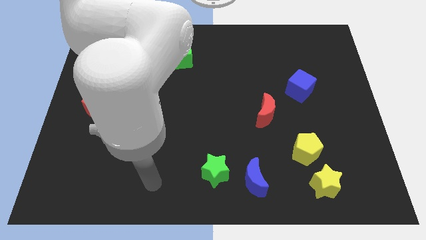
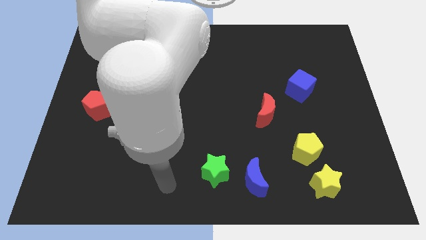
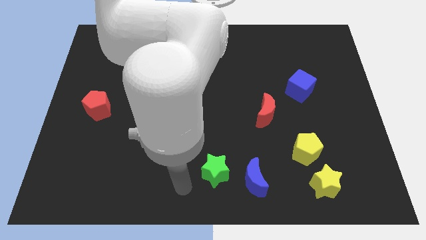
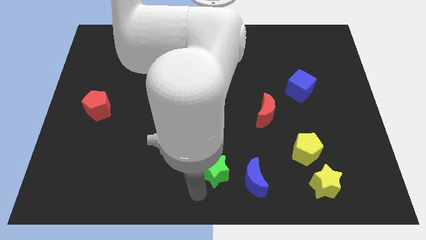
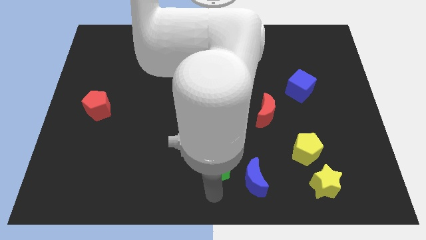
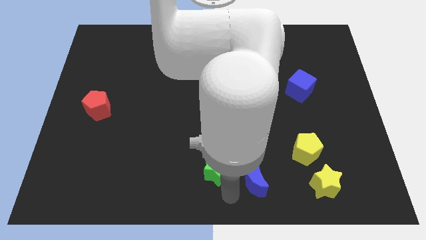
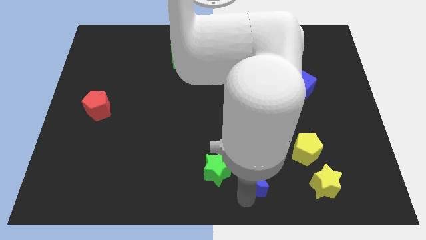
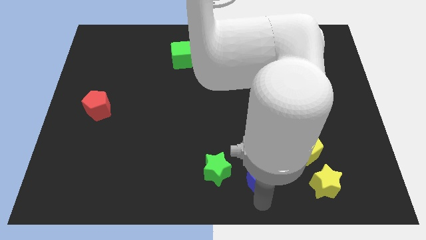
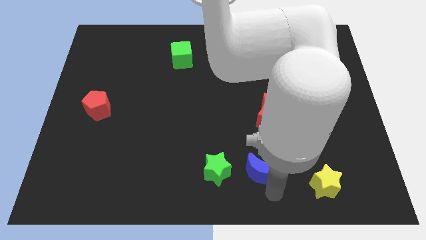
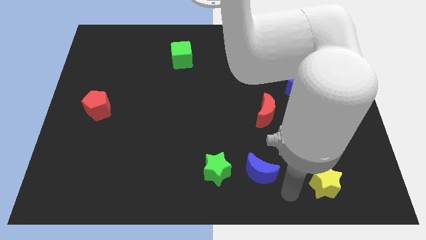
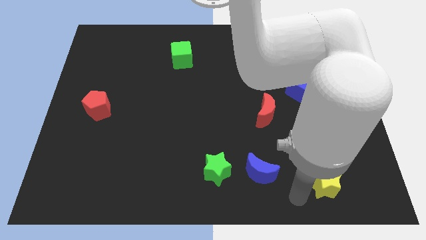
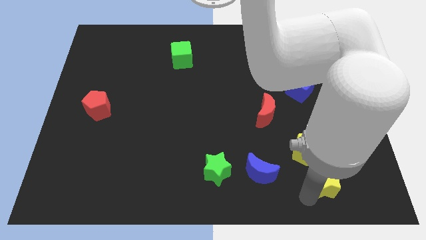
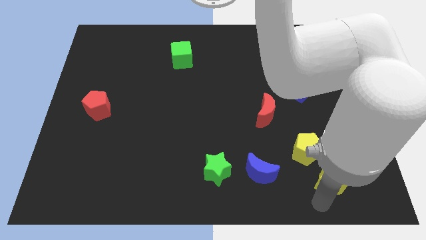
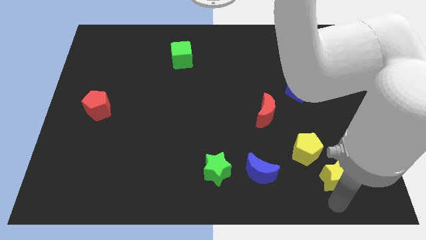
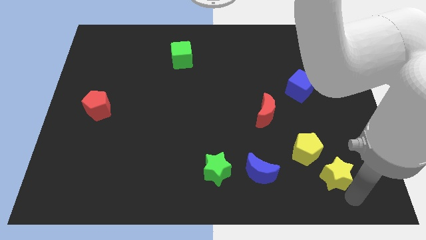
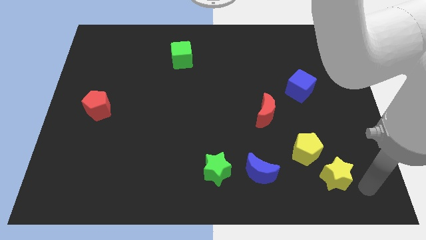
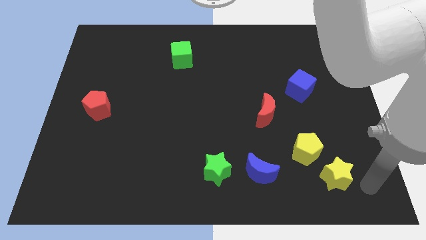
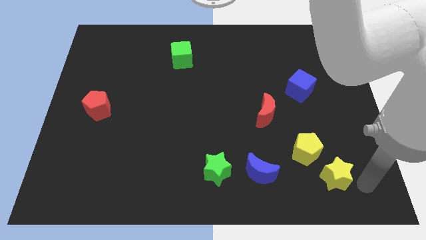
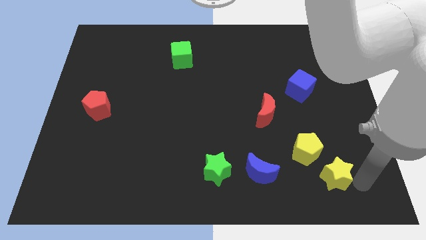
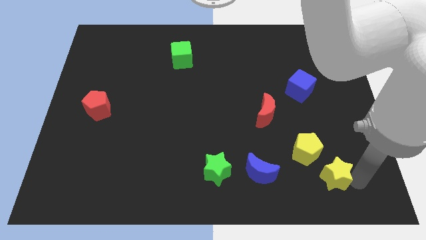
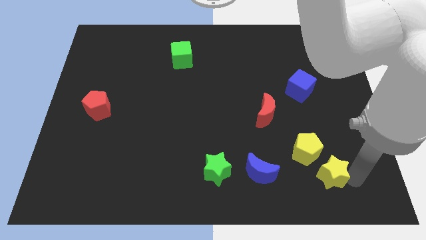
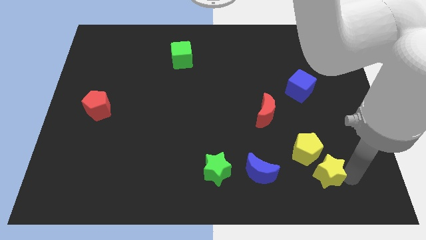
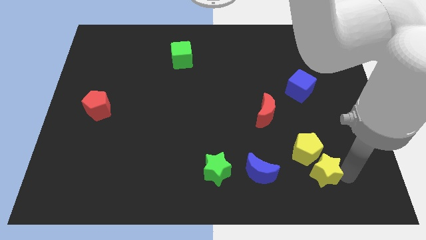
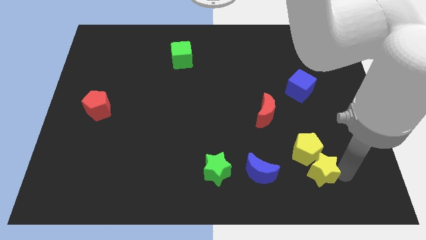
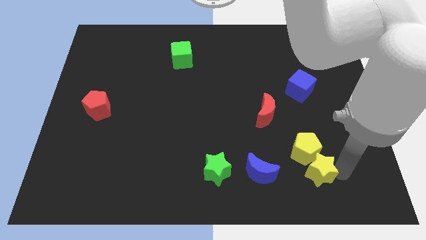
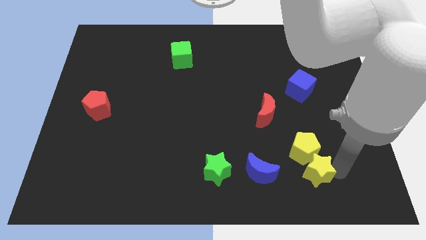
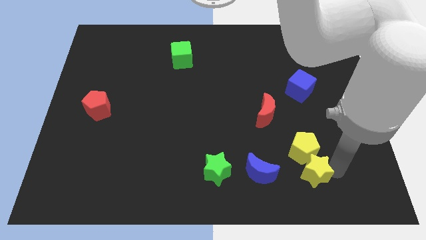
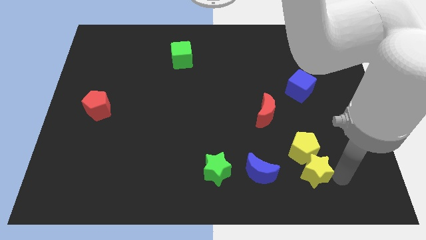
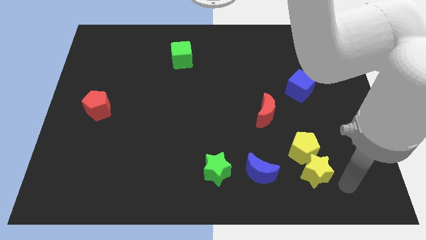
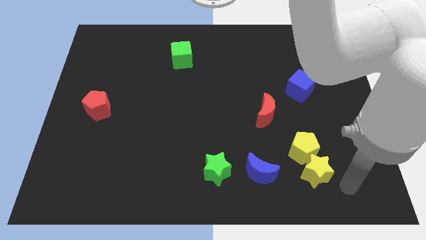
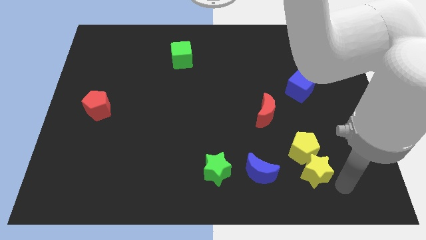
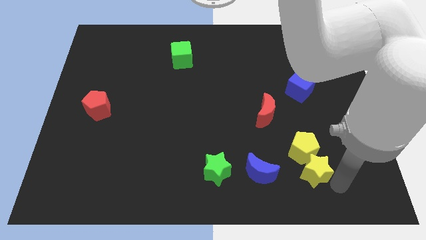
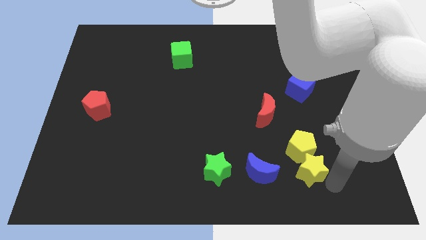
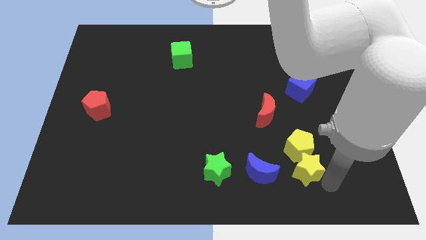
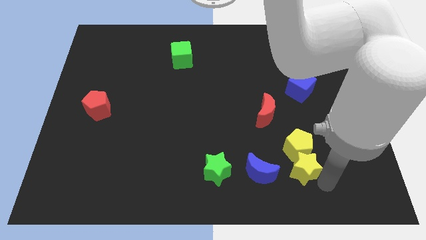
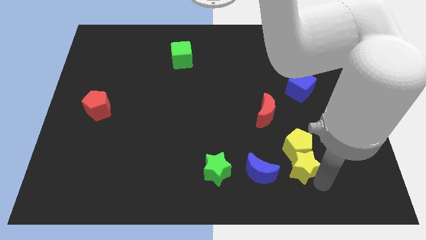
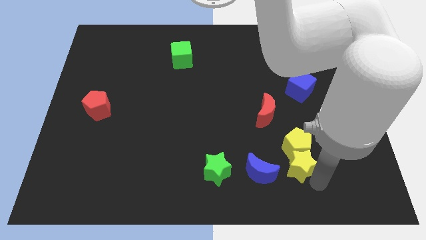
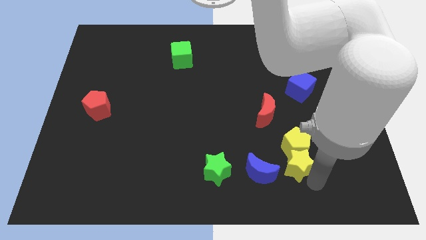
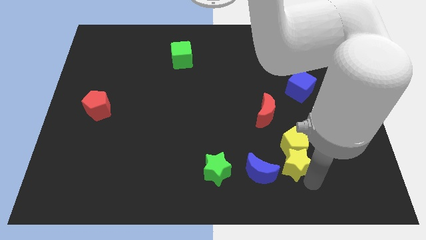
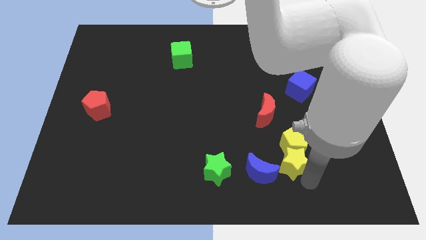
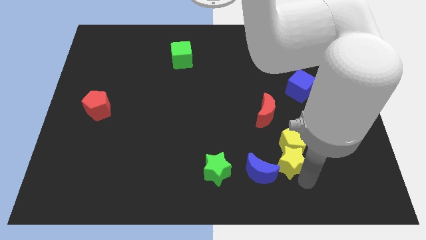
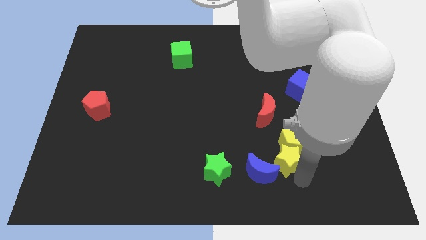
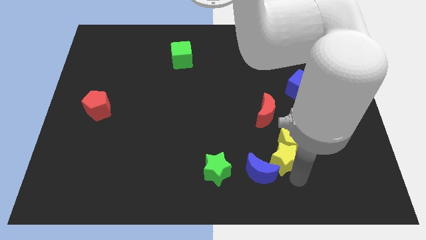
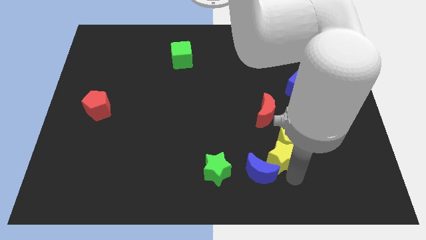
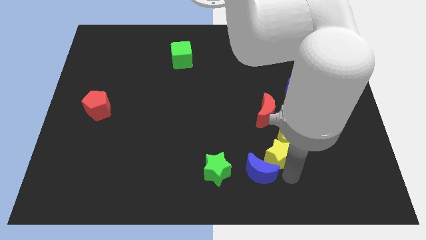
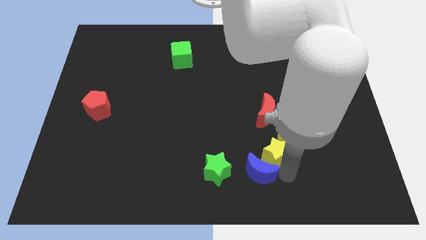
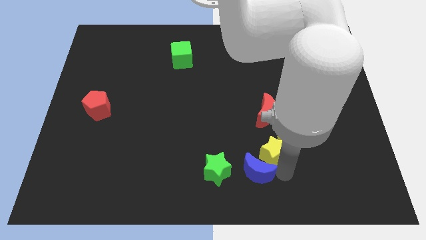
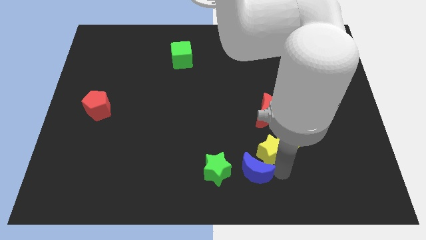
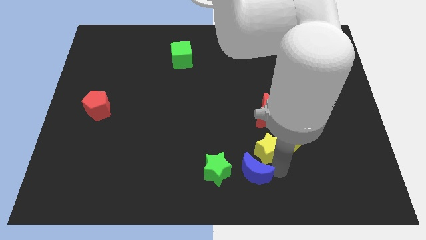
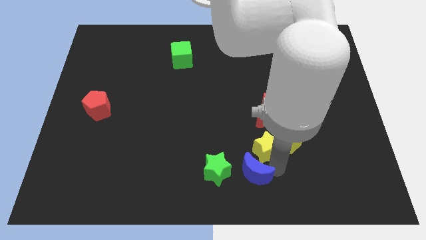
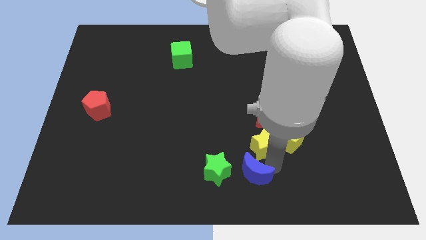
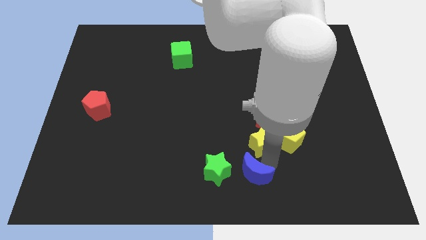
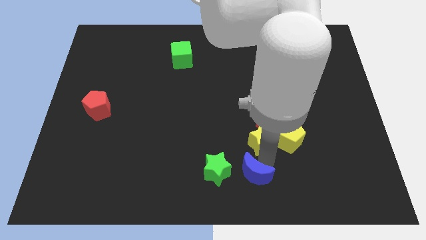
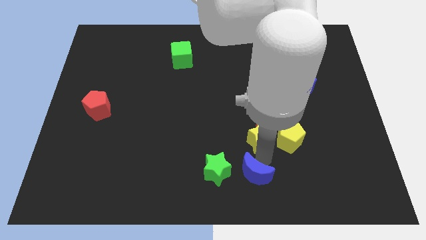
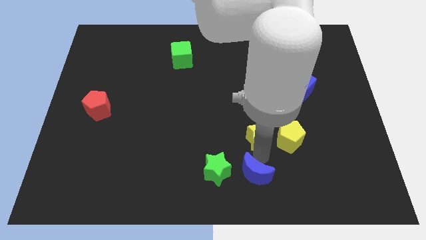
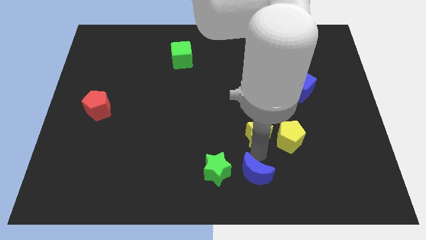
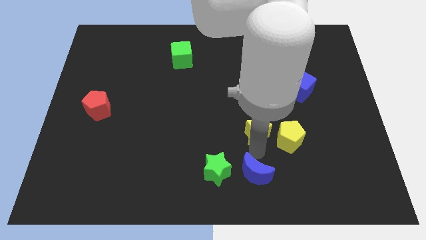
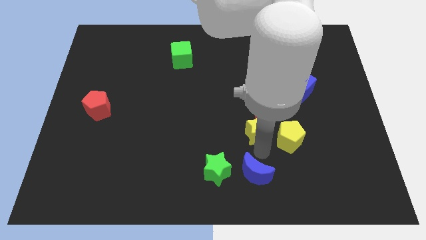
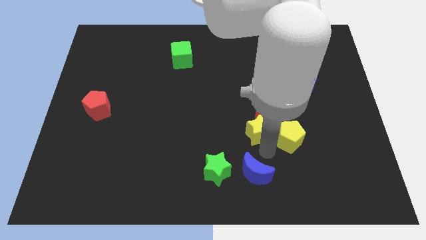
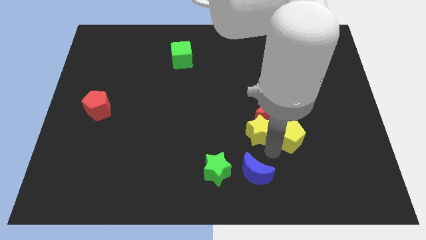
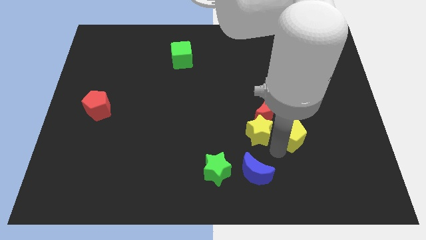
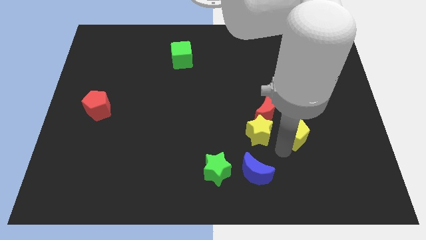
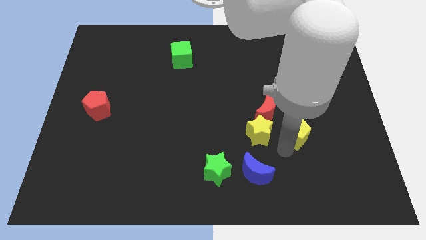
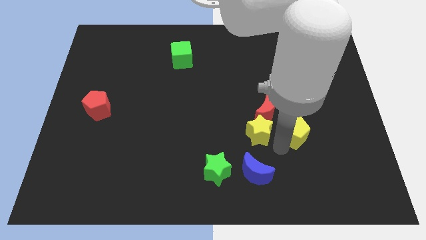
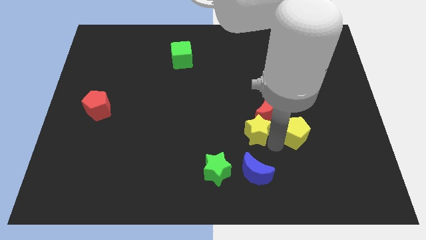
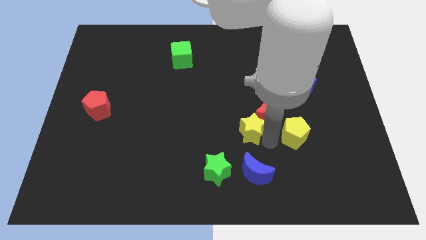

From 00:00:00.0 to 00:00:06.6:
put the yellow star to the middle of the board
